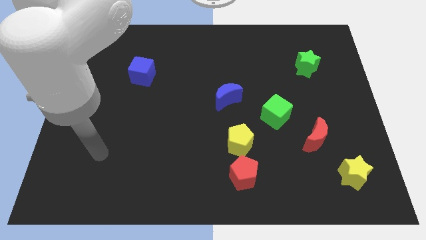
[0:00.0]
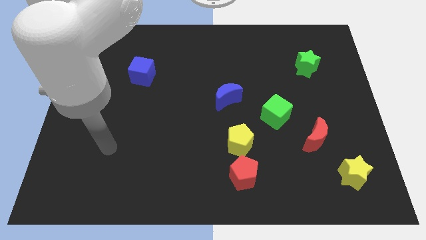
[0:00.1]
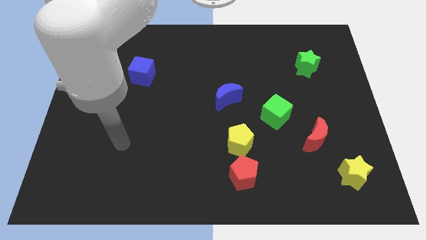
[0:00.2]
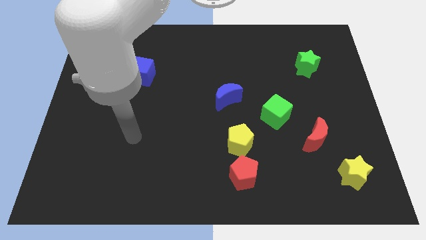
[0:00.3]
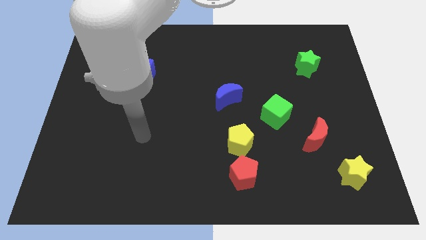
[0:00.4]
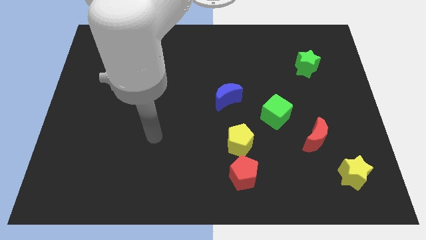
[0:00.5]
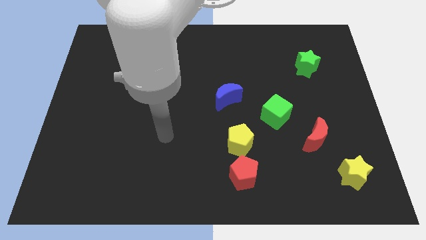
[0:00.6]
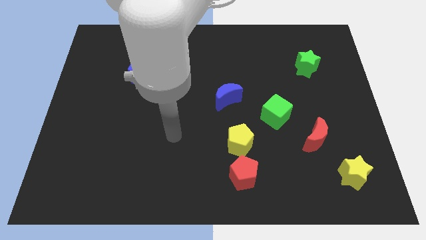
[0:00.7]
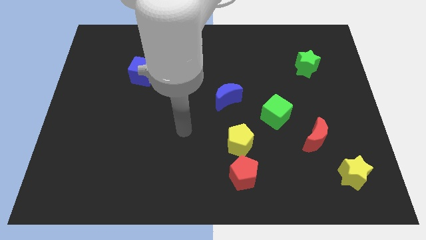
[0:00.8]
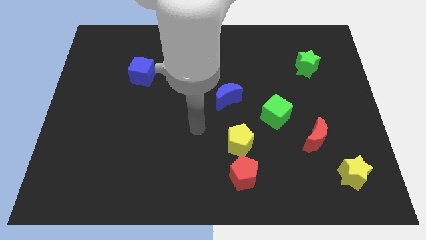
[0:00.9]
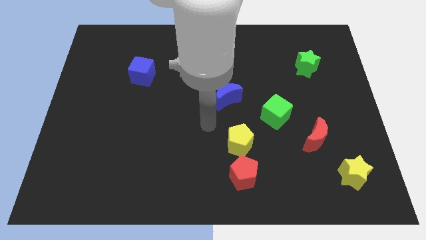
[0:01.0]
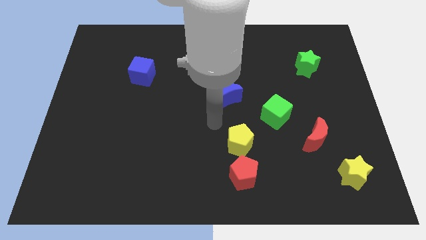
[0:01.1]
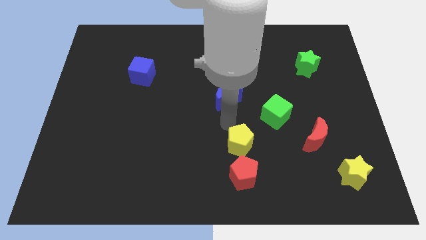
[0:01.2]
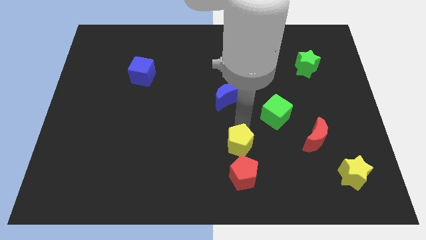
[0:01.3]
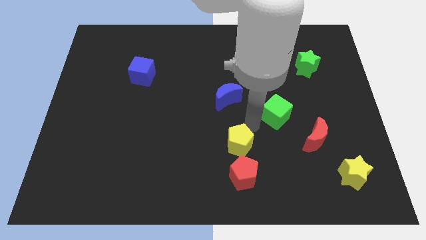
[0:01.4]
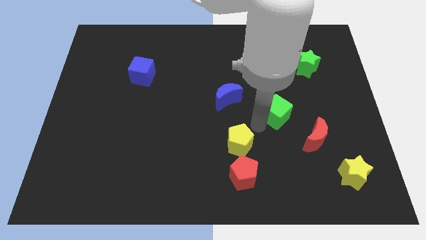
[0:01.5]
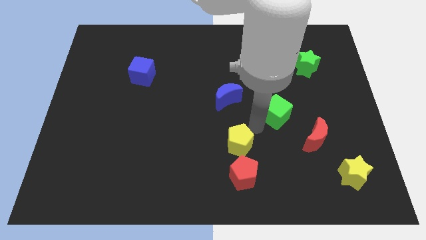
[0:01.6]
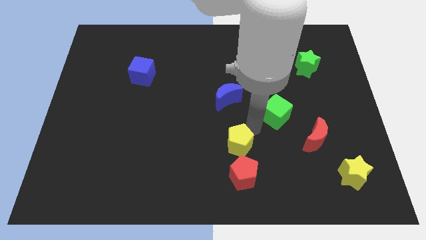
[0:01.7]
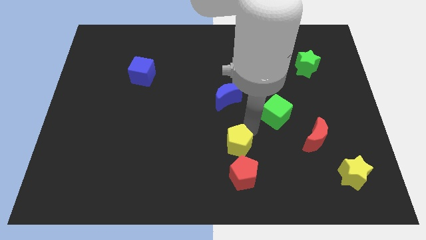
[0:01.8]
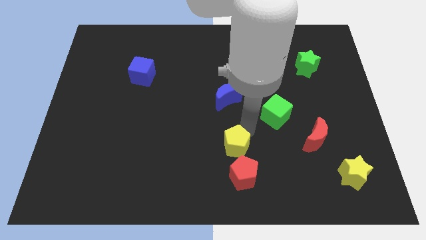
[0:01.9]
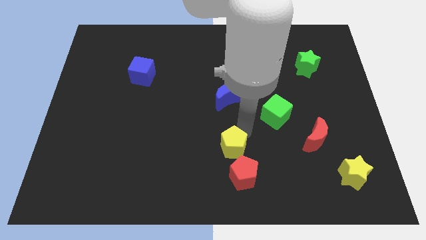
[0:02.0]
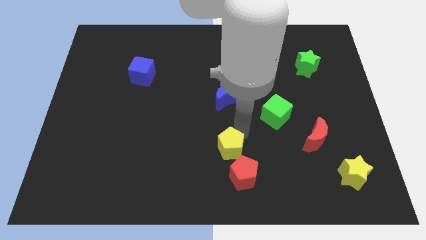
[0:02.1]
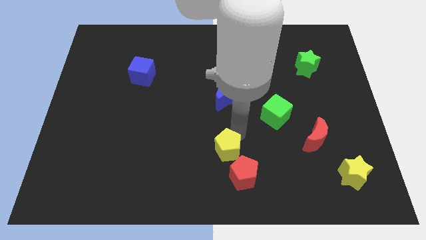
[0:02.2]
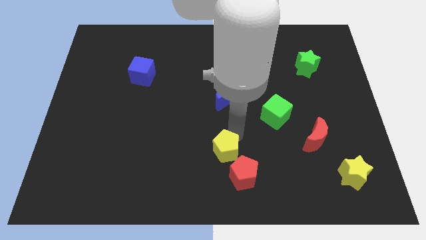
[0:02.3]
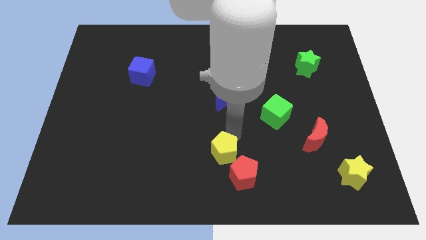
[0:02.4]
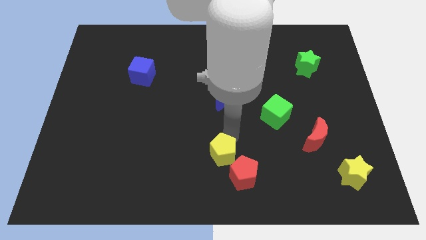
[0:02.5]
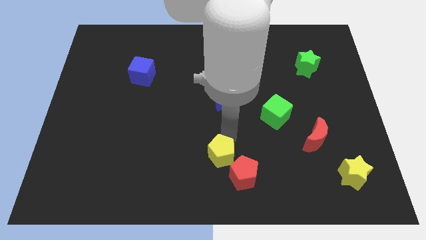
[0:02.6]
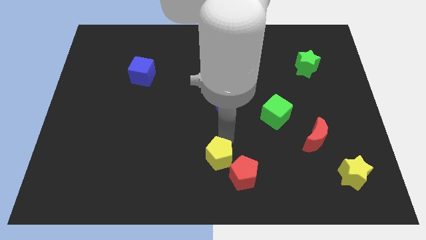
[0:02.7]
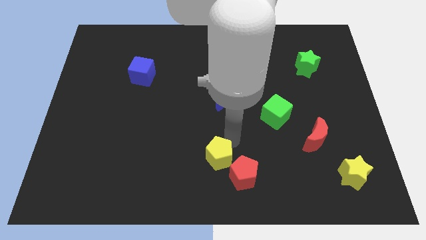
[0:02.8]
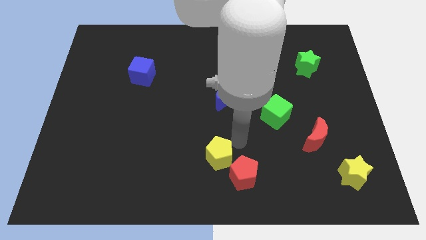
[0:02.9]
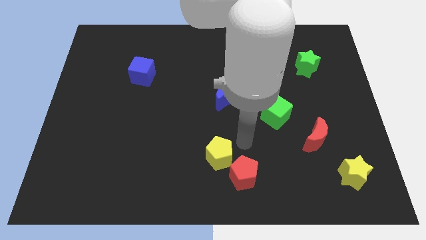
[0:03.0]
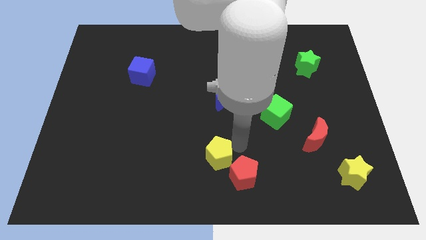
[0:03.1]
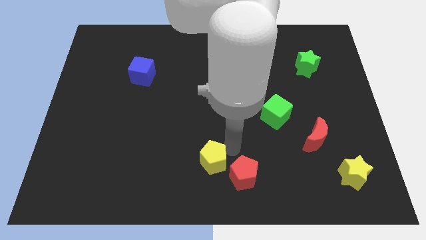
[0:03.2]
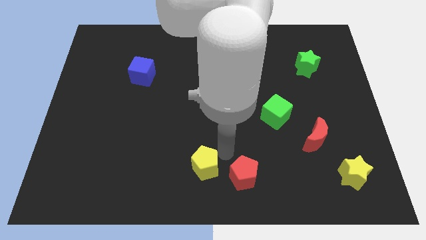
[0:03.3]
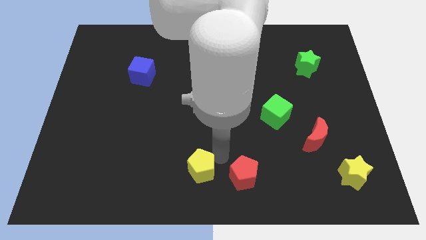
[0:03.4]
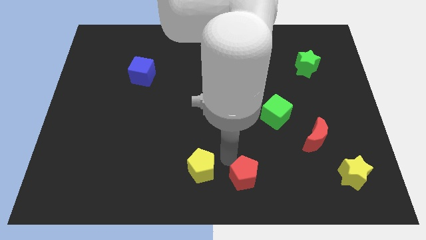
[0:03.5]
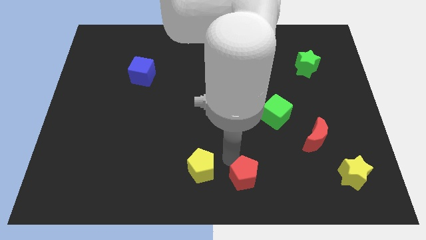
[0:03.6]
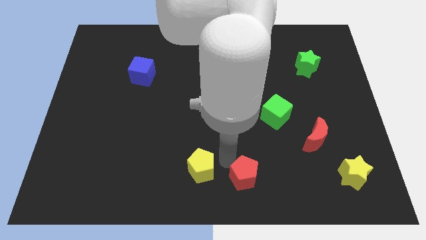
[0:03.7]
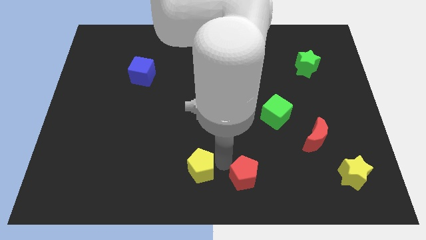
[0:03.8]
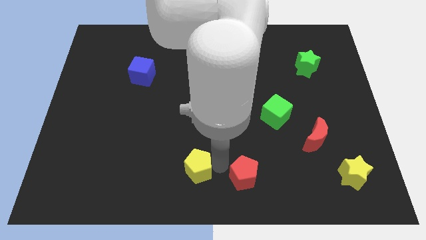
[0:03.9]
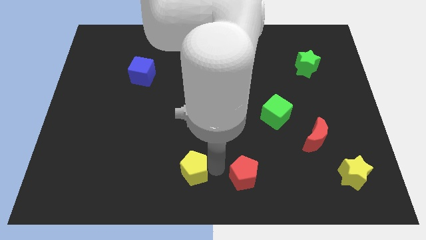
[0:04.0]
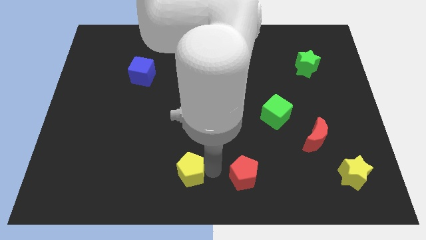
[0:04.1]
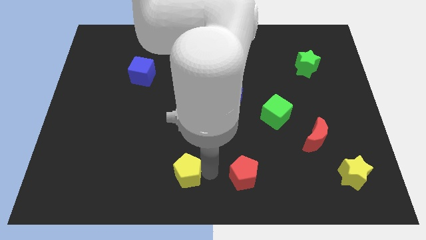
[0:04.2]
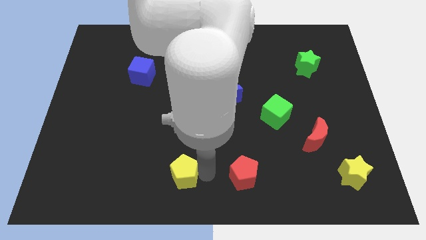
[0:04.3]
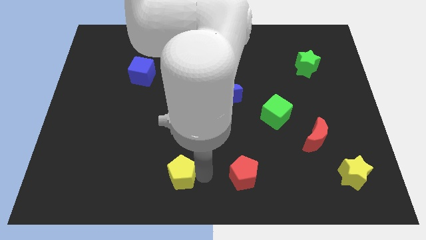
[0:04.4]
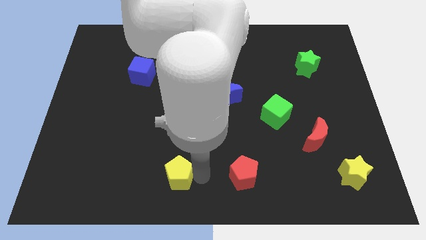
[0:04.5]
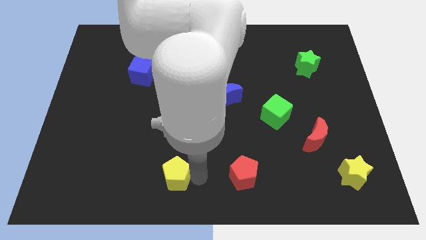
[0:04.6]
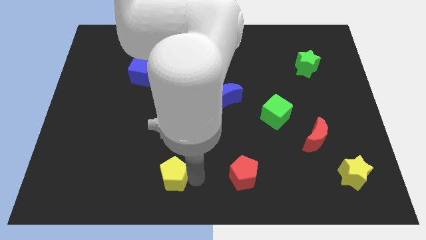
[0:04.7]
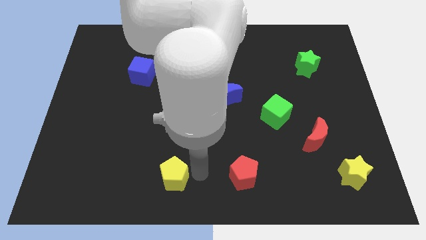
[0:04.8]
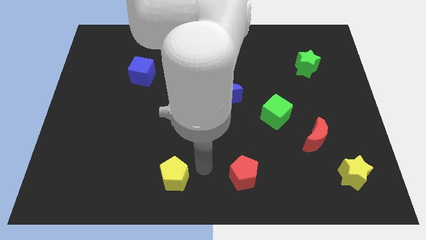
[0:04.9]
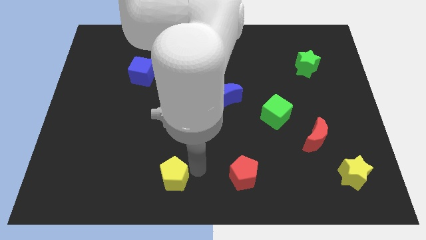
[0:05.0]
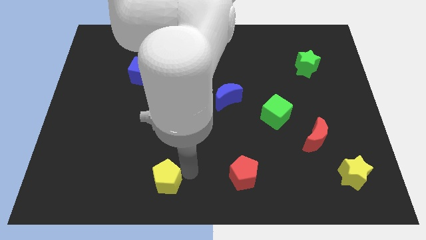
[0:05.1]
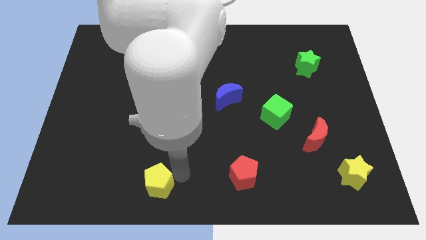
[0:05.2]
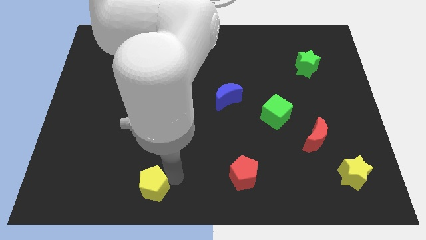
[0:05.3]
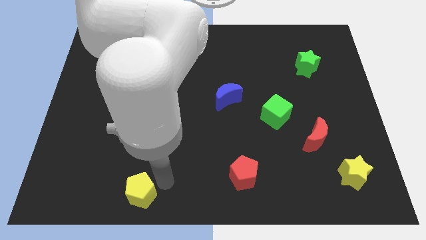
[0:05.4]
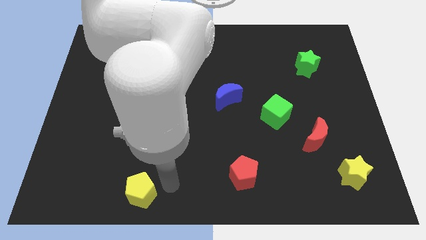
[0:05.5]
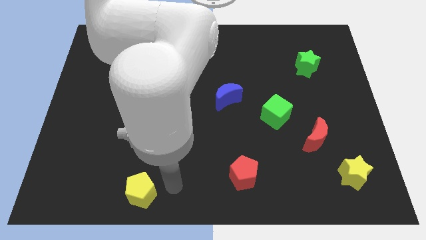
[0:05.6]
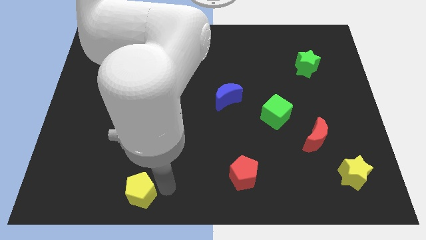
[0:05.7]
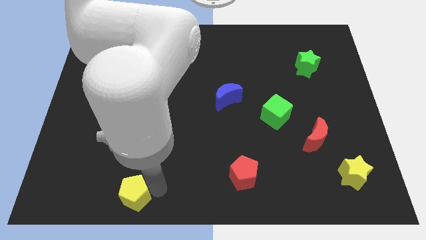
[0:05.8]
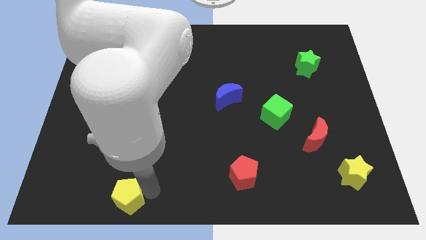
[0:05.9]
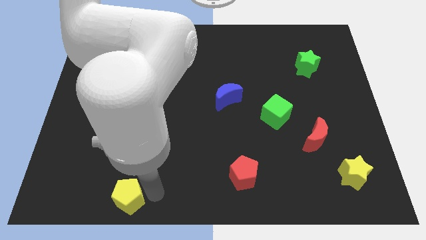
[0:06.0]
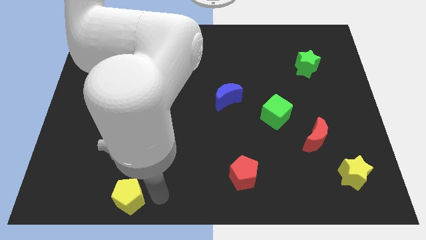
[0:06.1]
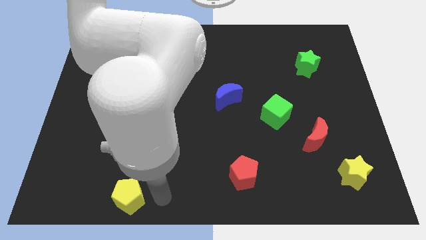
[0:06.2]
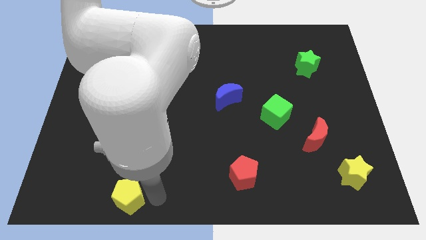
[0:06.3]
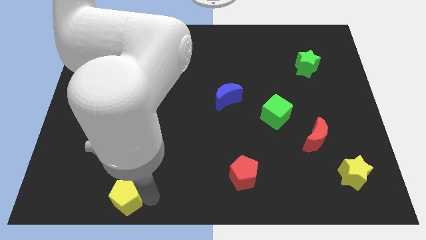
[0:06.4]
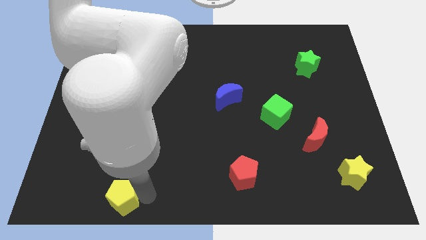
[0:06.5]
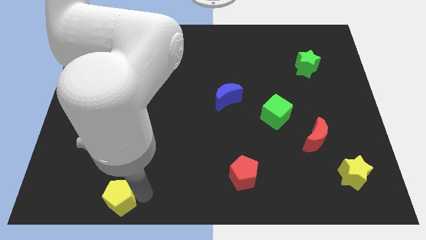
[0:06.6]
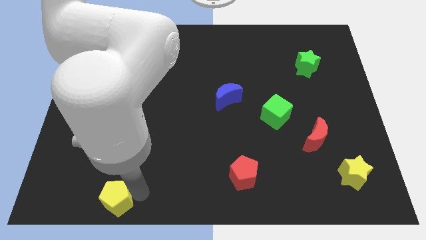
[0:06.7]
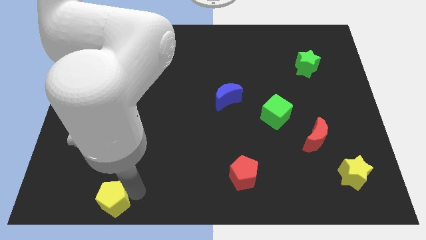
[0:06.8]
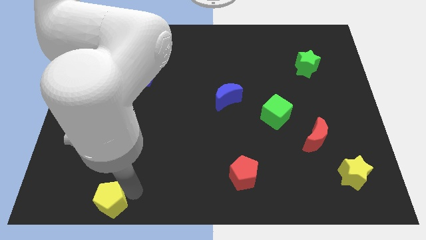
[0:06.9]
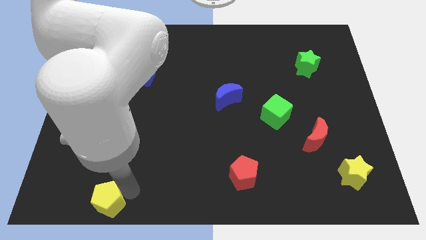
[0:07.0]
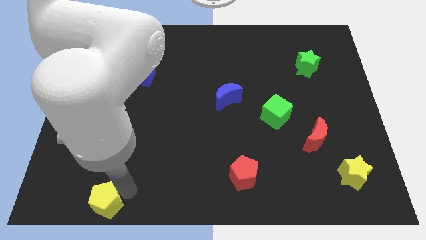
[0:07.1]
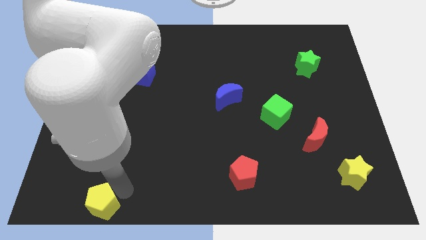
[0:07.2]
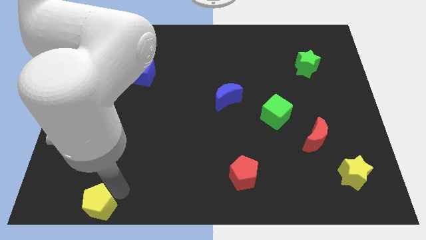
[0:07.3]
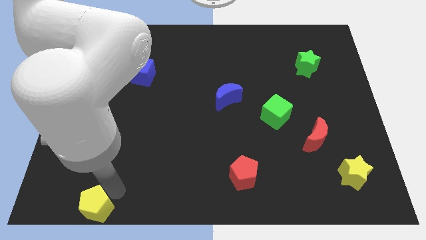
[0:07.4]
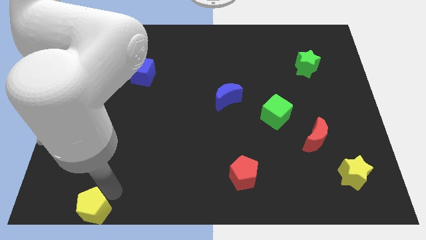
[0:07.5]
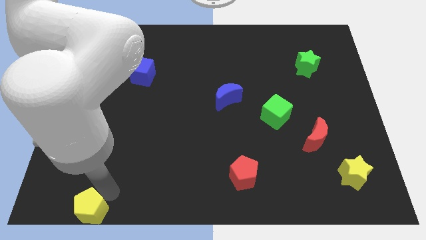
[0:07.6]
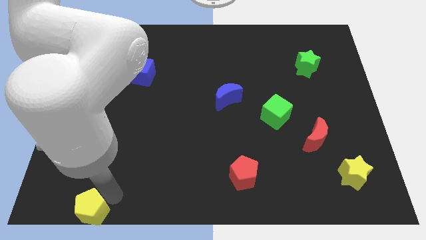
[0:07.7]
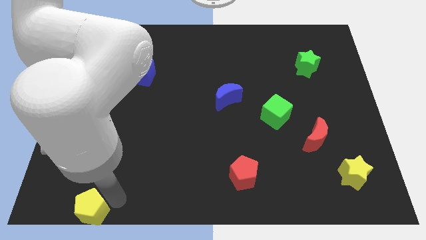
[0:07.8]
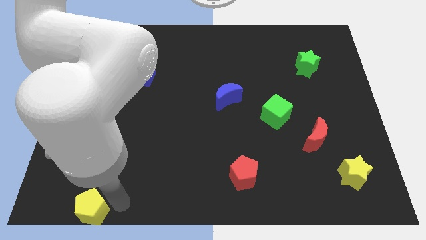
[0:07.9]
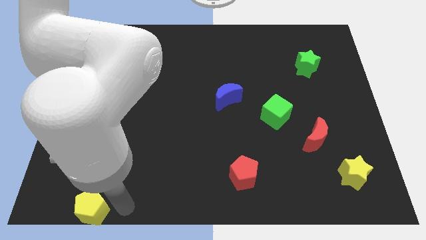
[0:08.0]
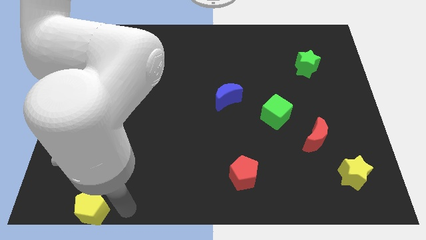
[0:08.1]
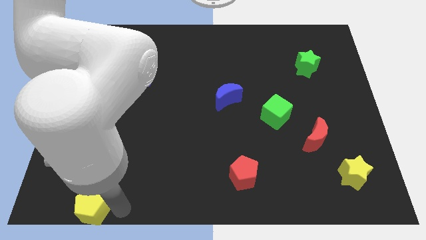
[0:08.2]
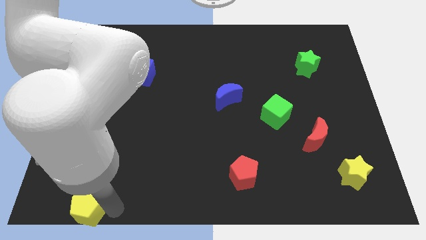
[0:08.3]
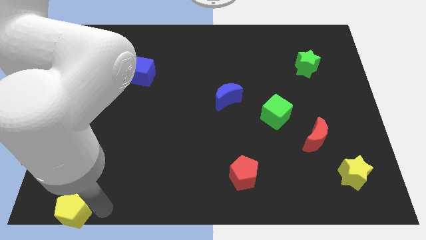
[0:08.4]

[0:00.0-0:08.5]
move the yellow pentagon to the bottom left corner
